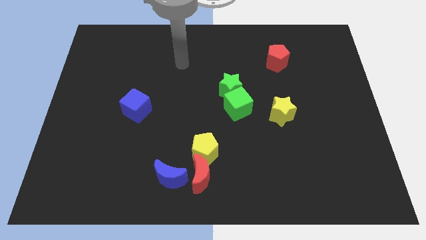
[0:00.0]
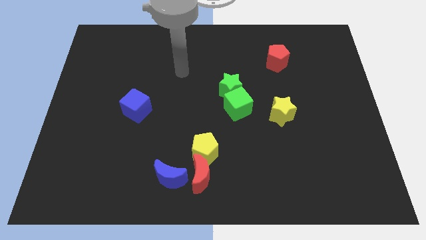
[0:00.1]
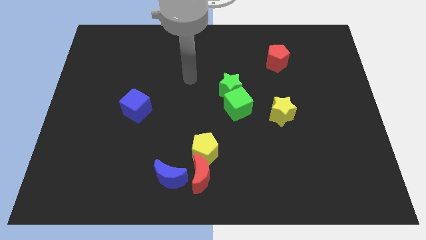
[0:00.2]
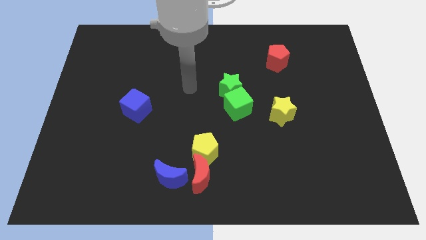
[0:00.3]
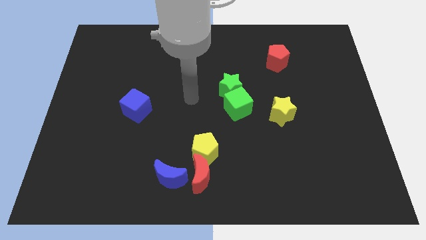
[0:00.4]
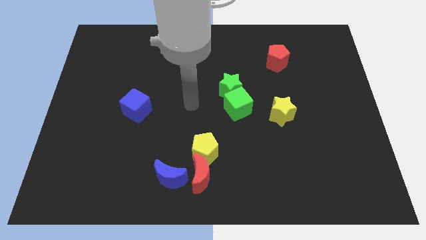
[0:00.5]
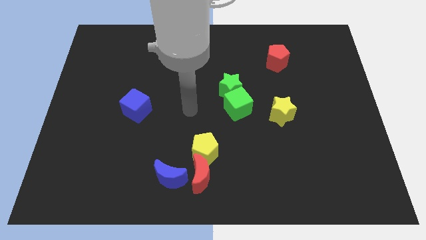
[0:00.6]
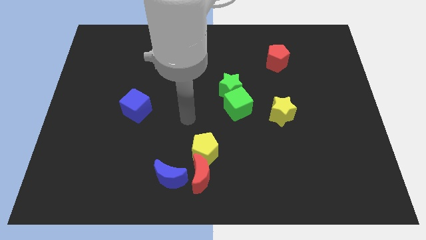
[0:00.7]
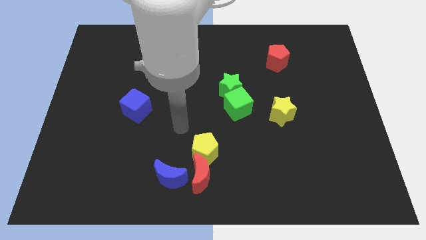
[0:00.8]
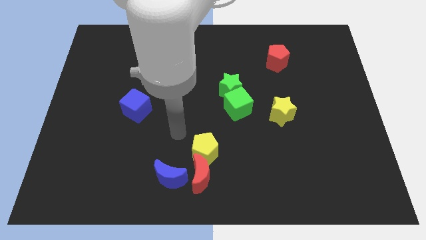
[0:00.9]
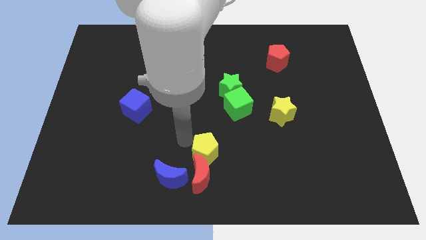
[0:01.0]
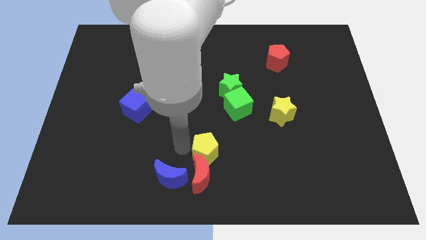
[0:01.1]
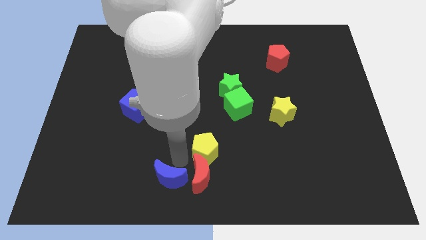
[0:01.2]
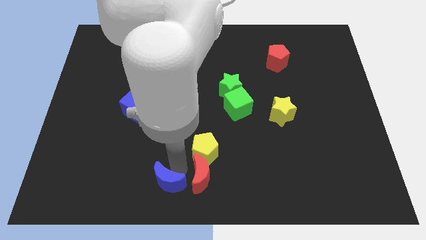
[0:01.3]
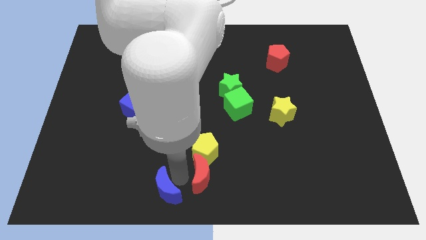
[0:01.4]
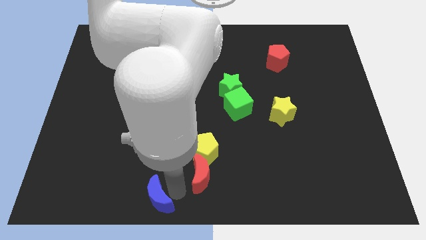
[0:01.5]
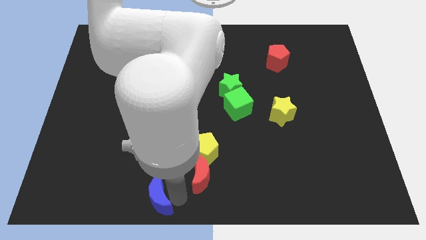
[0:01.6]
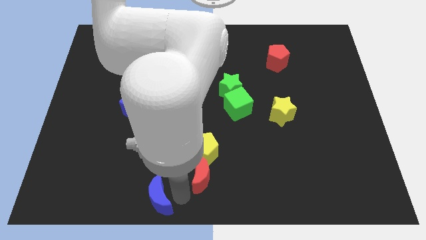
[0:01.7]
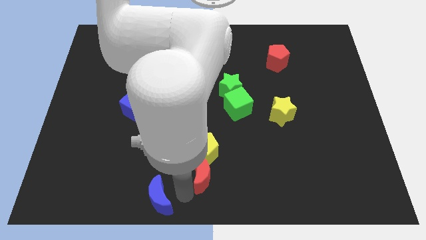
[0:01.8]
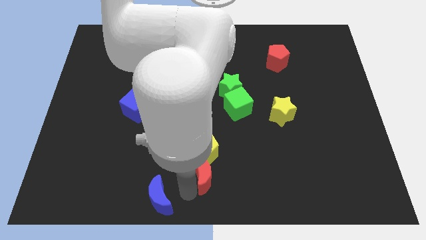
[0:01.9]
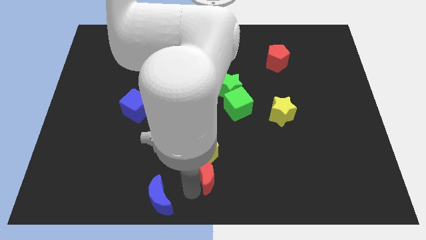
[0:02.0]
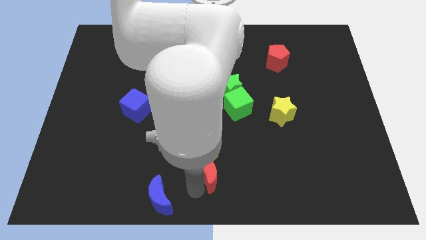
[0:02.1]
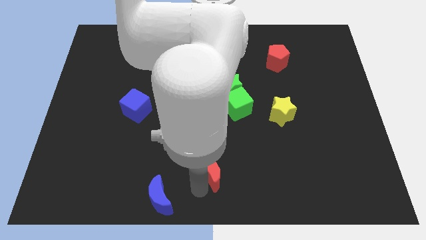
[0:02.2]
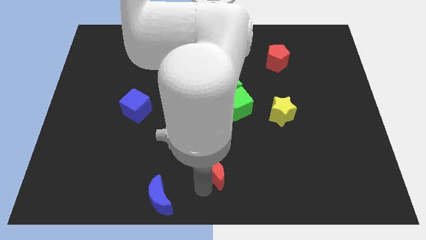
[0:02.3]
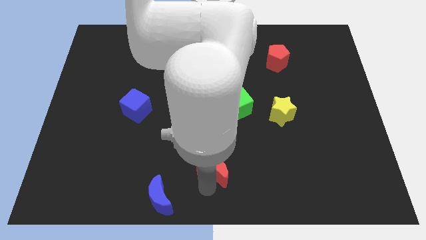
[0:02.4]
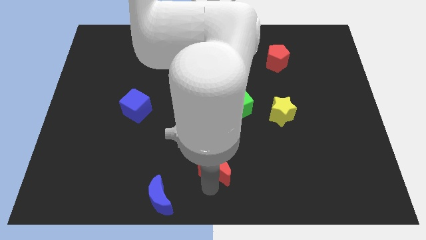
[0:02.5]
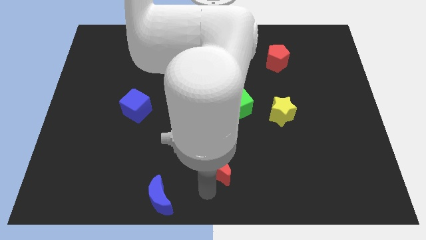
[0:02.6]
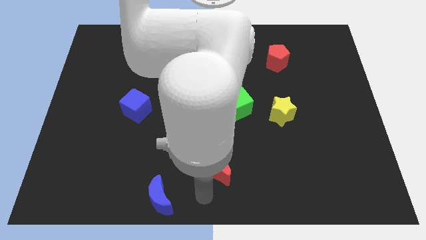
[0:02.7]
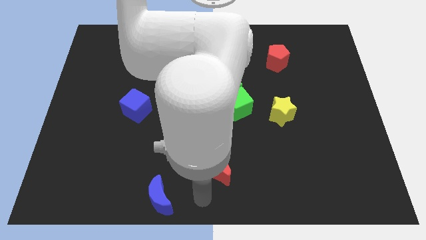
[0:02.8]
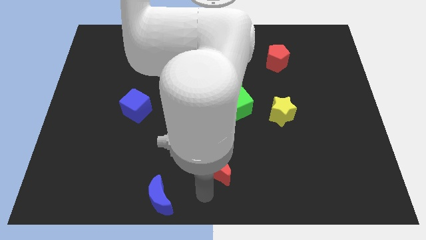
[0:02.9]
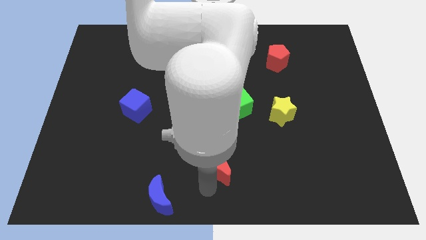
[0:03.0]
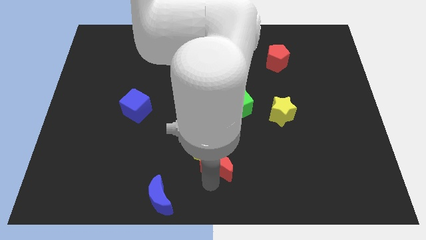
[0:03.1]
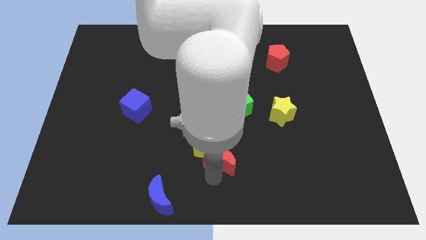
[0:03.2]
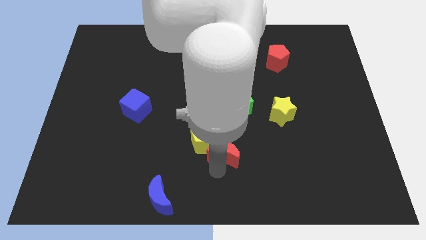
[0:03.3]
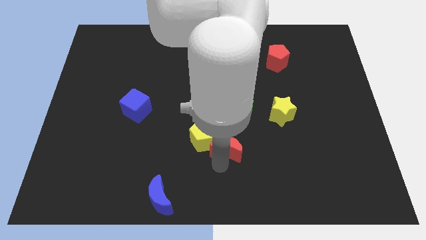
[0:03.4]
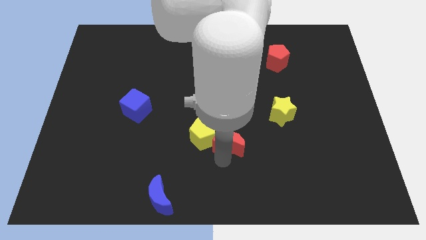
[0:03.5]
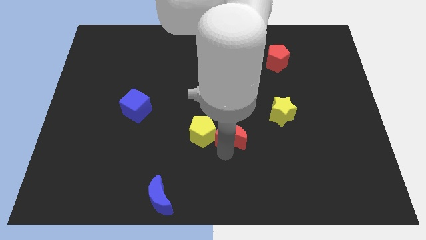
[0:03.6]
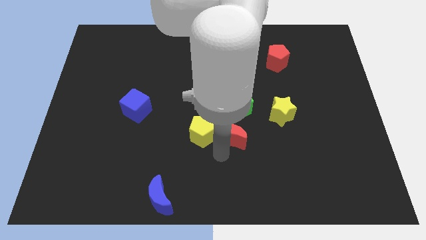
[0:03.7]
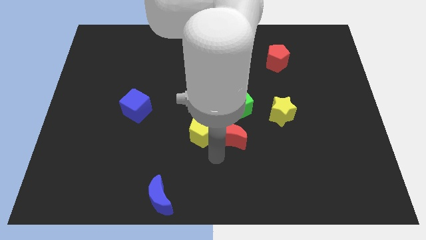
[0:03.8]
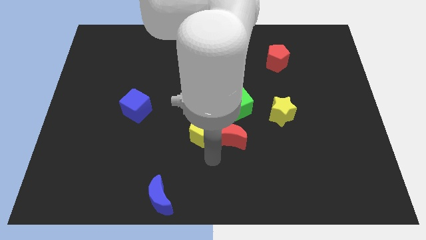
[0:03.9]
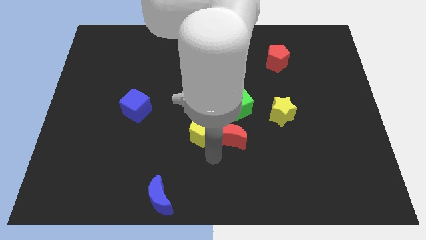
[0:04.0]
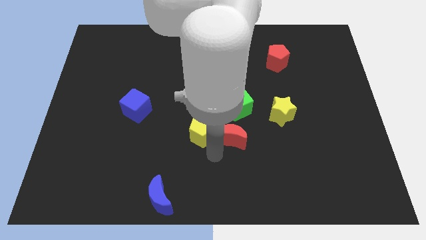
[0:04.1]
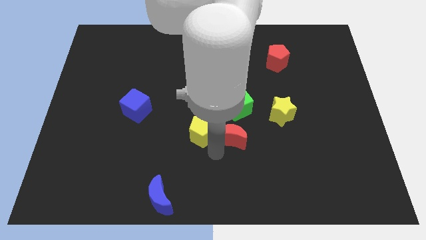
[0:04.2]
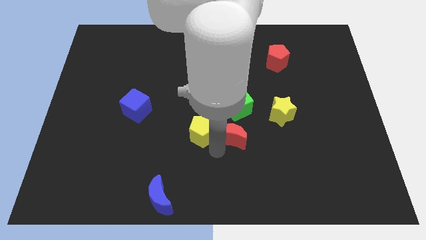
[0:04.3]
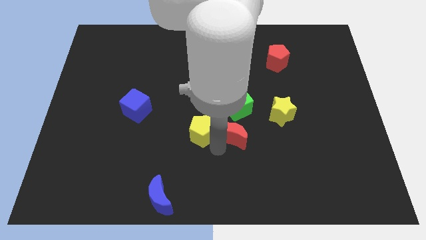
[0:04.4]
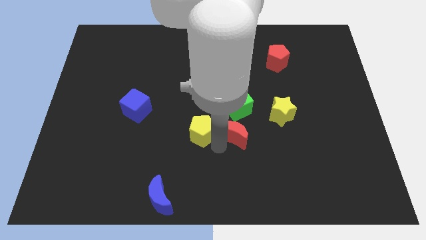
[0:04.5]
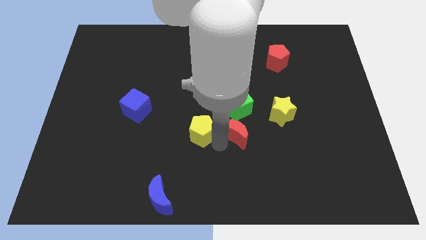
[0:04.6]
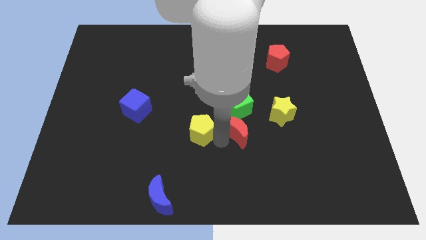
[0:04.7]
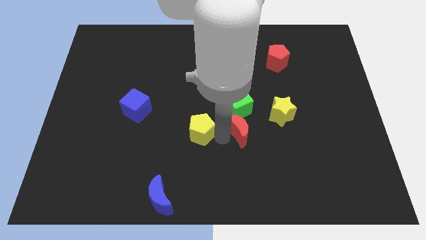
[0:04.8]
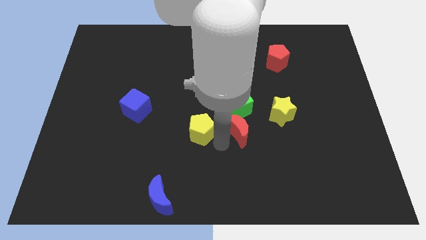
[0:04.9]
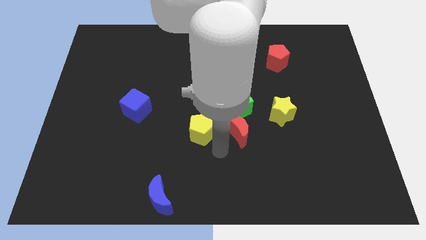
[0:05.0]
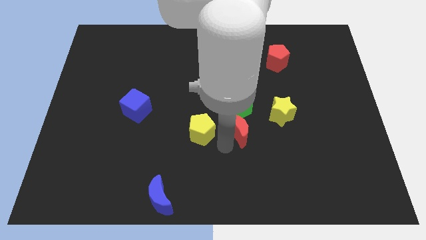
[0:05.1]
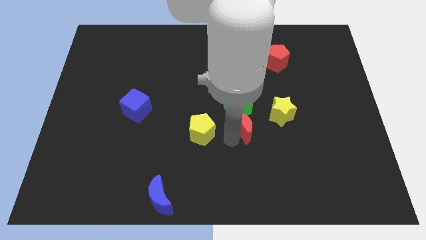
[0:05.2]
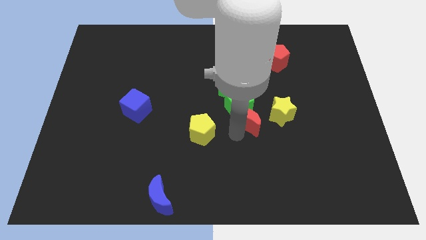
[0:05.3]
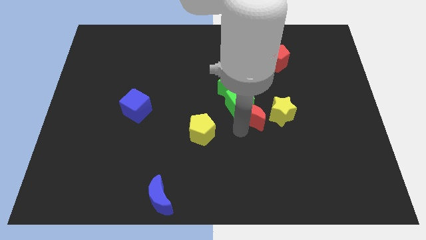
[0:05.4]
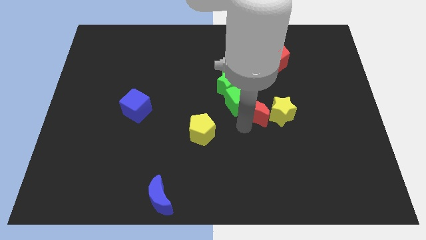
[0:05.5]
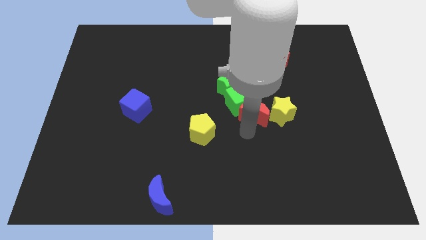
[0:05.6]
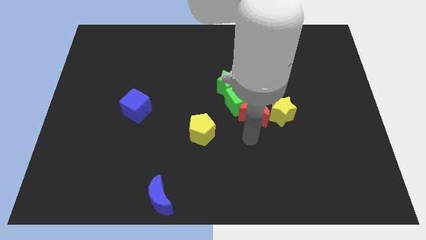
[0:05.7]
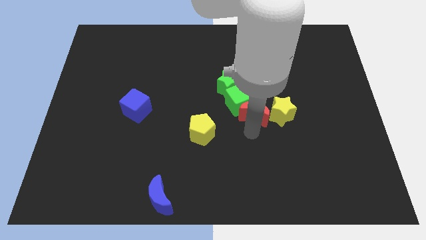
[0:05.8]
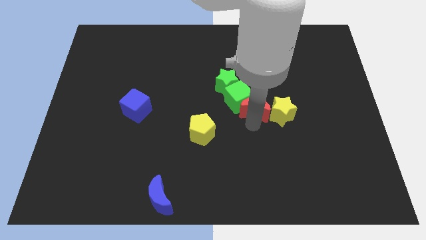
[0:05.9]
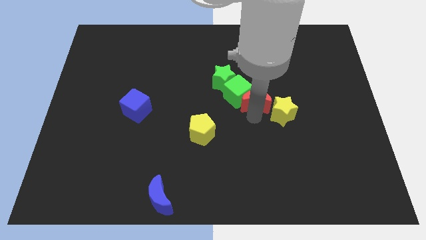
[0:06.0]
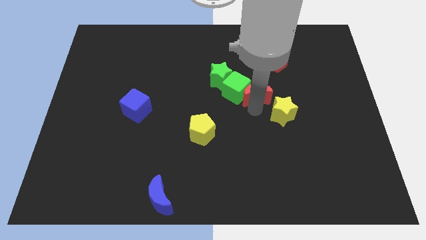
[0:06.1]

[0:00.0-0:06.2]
push the red moon to the top right of the green cube
